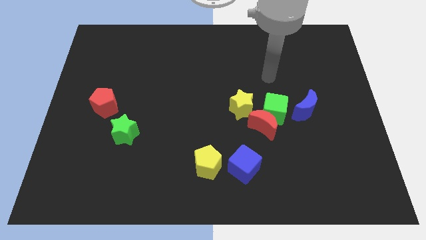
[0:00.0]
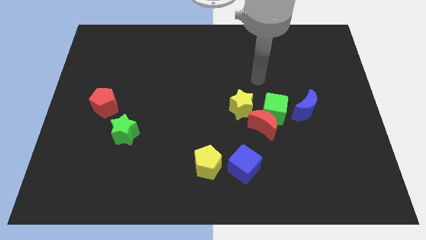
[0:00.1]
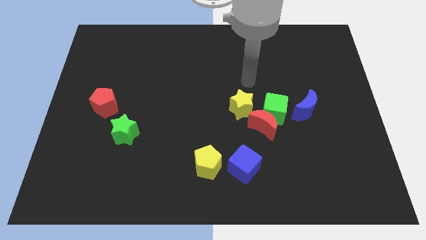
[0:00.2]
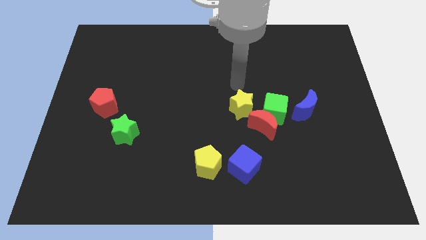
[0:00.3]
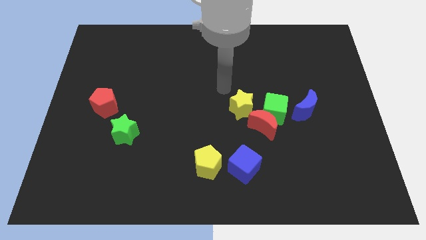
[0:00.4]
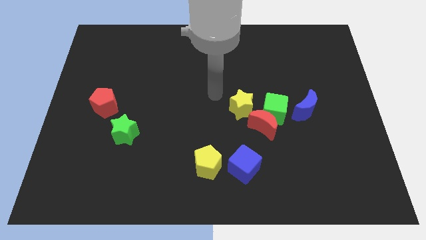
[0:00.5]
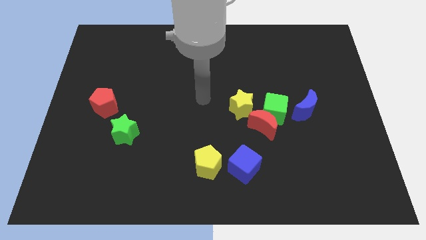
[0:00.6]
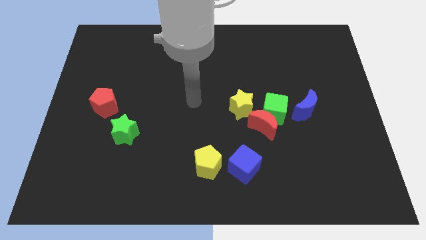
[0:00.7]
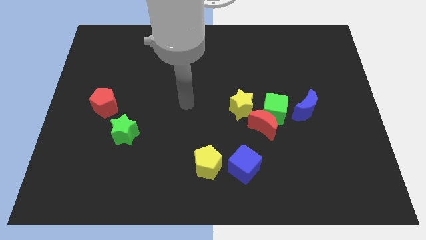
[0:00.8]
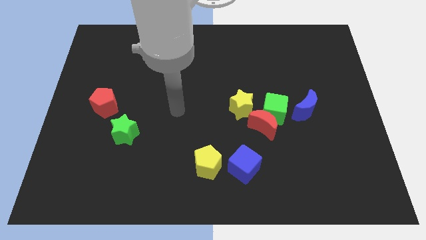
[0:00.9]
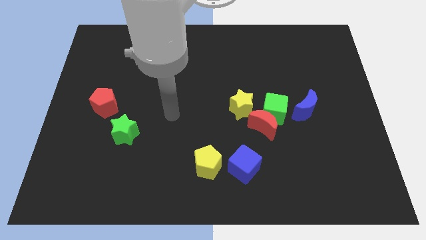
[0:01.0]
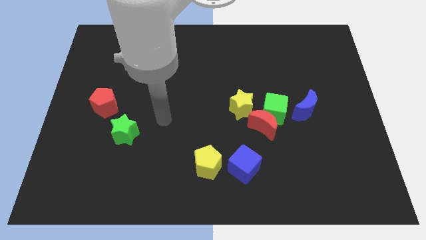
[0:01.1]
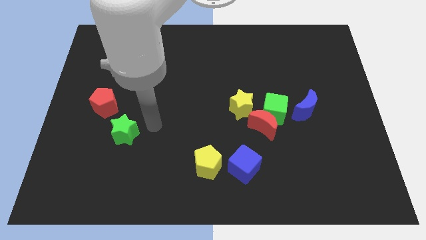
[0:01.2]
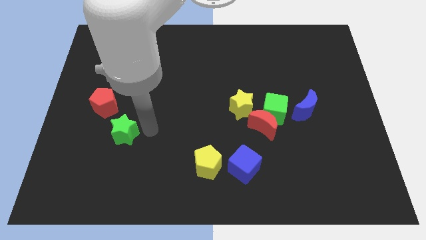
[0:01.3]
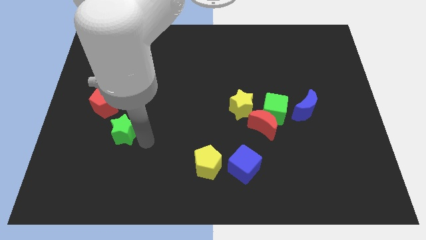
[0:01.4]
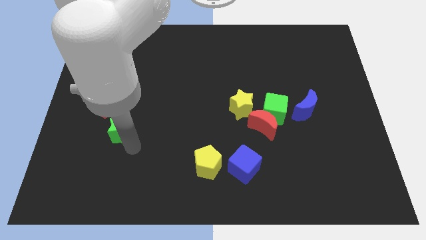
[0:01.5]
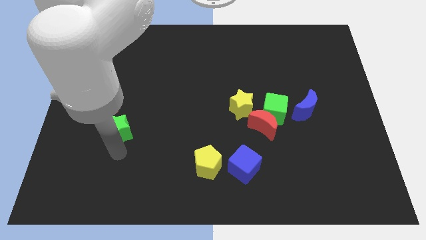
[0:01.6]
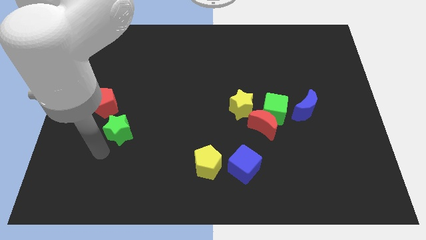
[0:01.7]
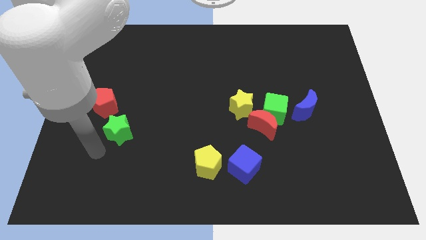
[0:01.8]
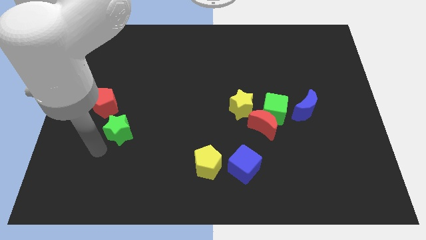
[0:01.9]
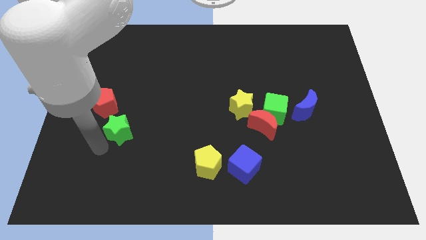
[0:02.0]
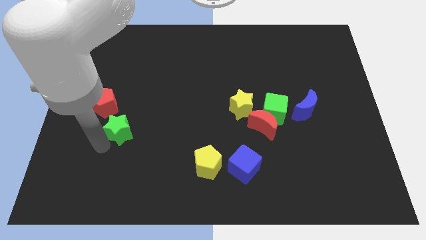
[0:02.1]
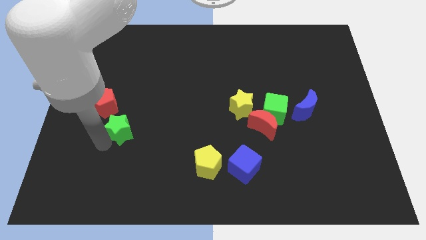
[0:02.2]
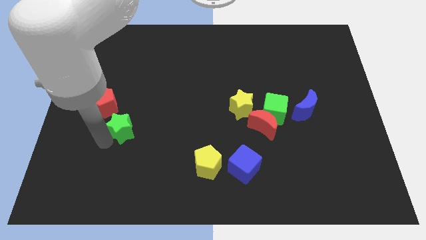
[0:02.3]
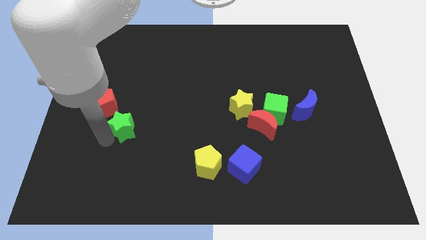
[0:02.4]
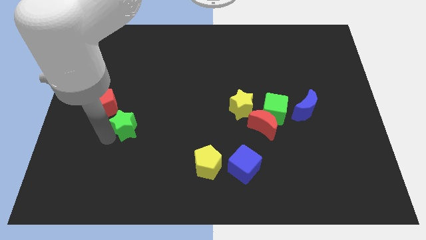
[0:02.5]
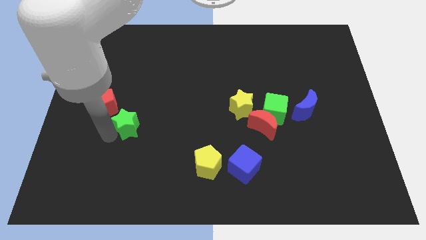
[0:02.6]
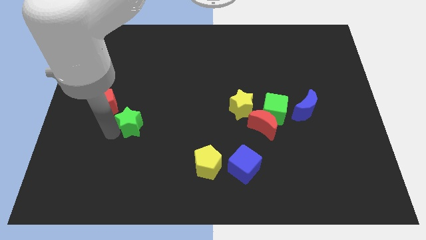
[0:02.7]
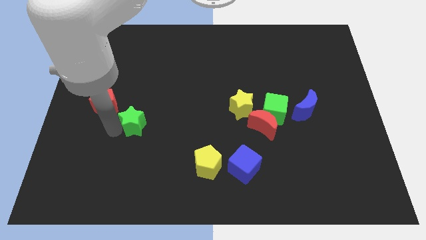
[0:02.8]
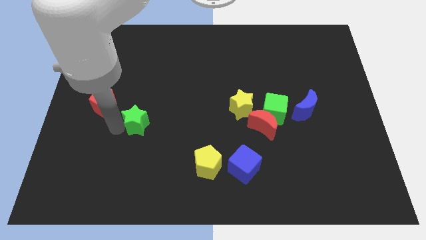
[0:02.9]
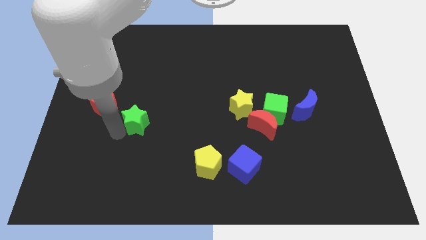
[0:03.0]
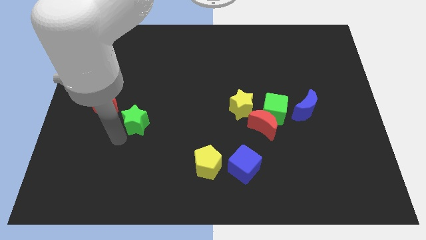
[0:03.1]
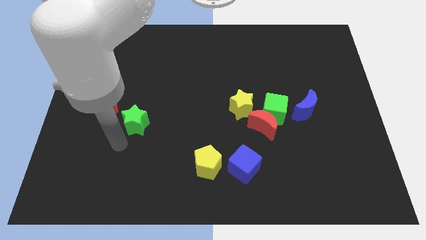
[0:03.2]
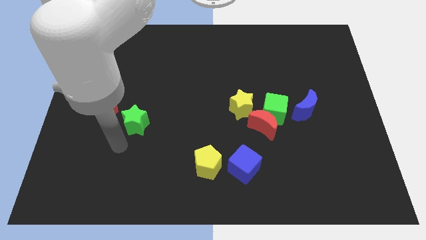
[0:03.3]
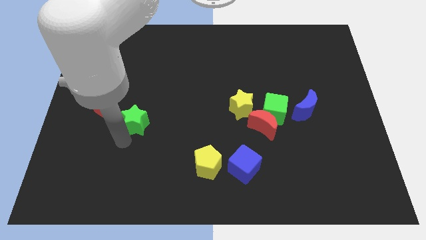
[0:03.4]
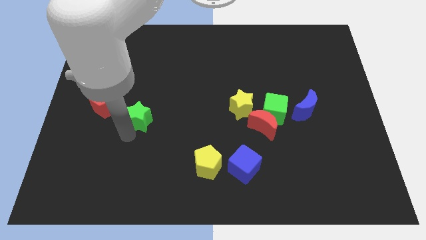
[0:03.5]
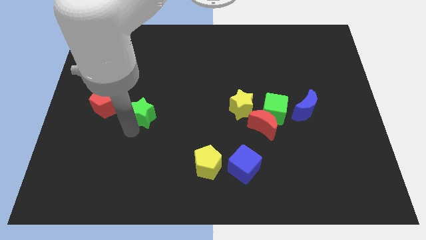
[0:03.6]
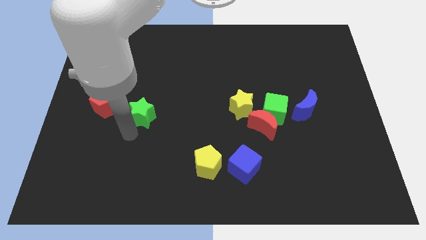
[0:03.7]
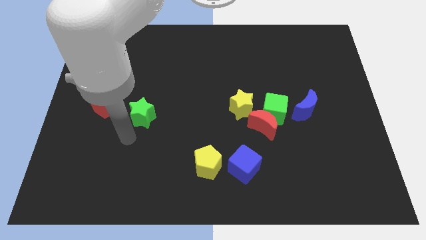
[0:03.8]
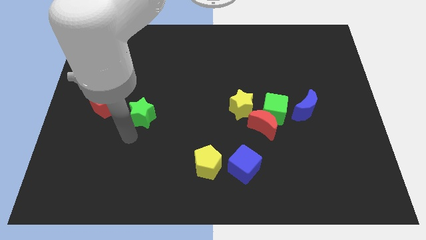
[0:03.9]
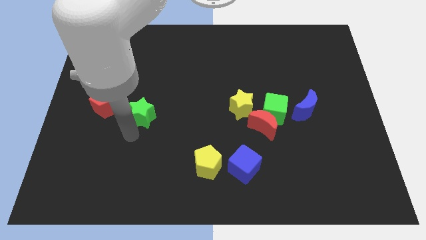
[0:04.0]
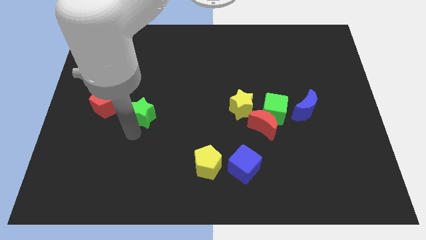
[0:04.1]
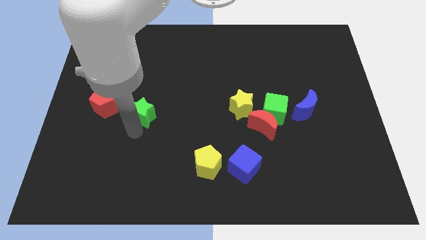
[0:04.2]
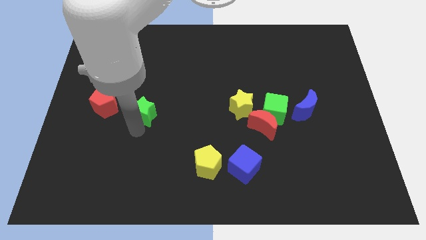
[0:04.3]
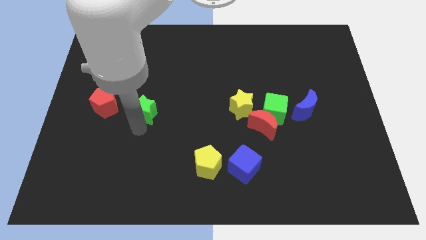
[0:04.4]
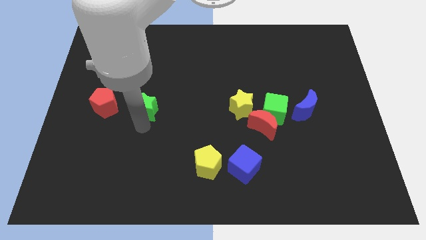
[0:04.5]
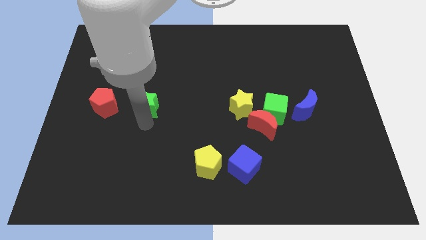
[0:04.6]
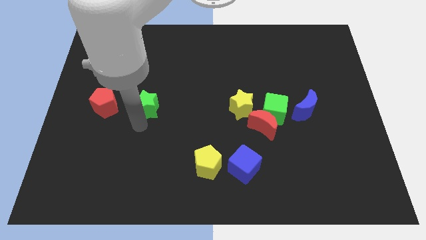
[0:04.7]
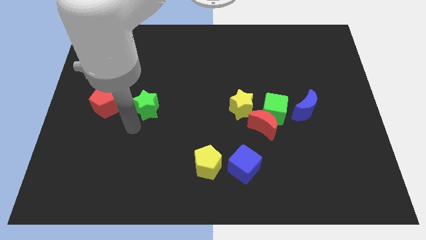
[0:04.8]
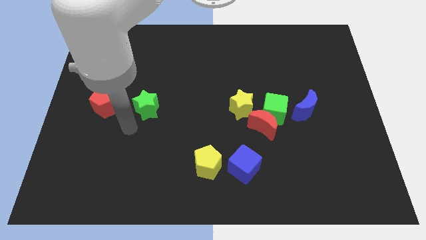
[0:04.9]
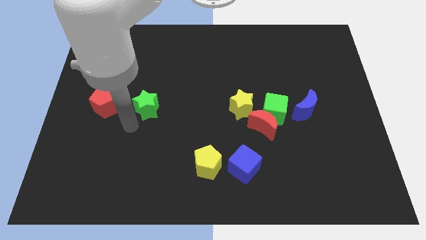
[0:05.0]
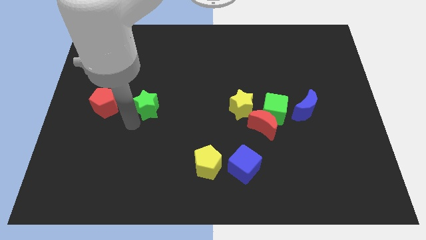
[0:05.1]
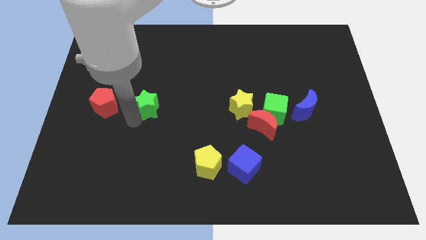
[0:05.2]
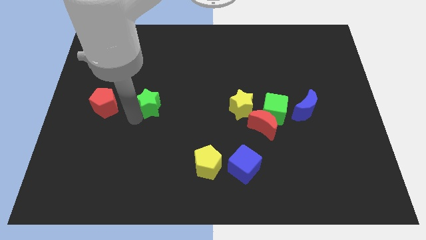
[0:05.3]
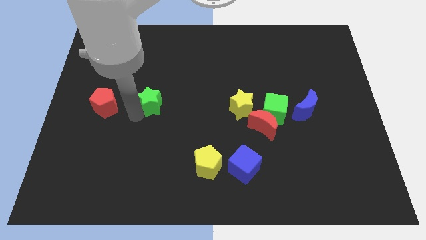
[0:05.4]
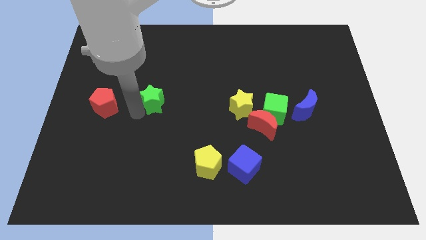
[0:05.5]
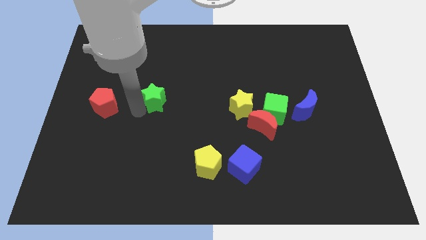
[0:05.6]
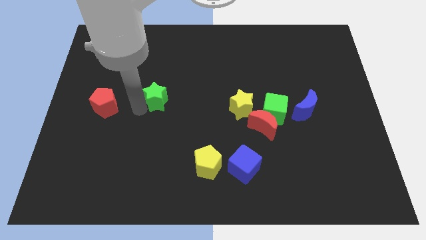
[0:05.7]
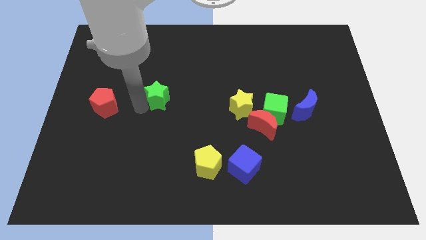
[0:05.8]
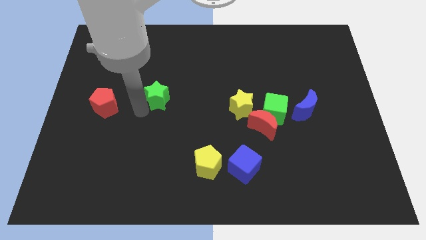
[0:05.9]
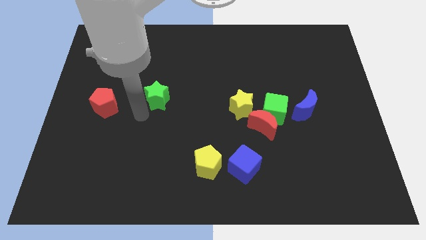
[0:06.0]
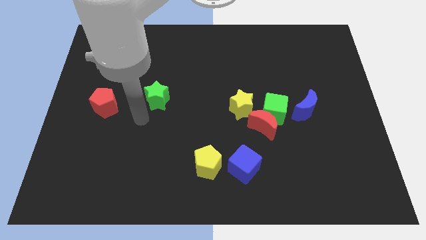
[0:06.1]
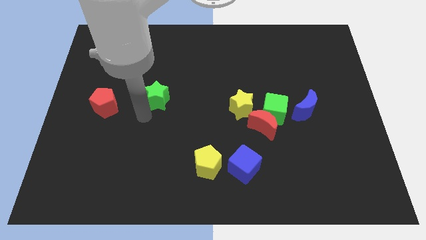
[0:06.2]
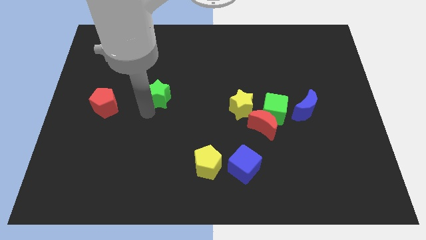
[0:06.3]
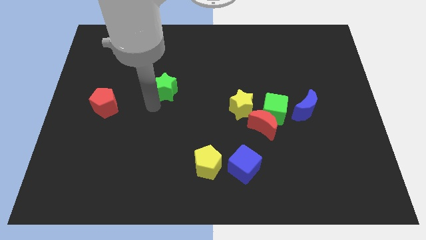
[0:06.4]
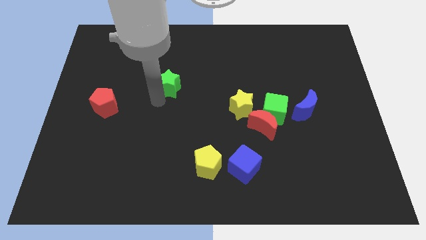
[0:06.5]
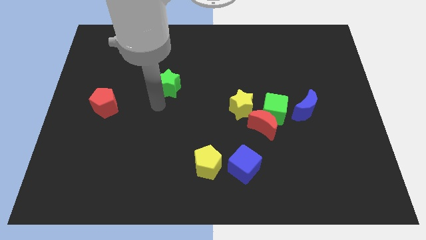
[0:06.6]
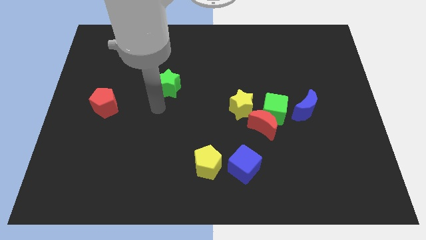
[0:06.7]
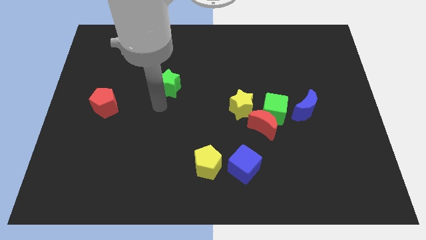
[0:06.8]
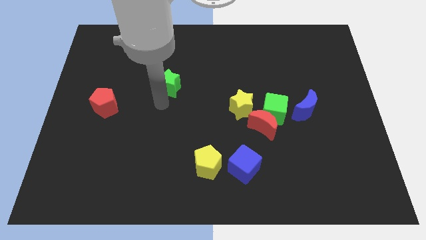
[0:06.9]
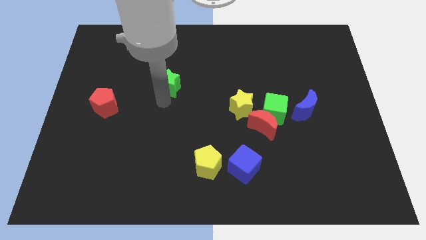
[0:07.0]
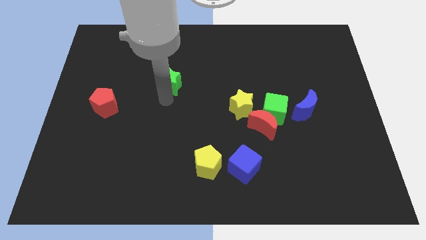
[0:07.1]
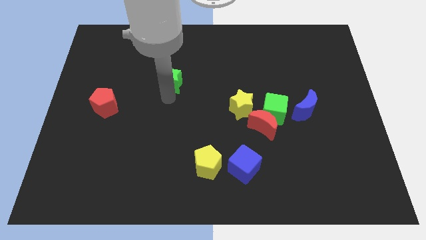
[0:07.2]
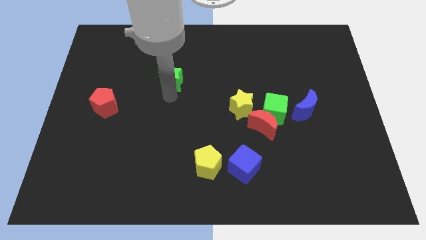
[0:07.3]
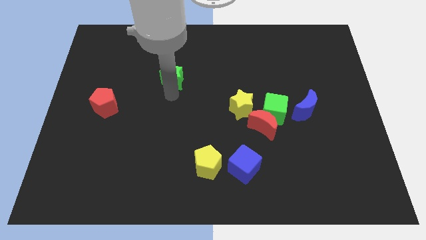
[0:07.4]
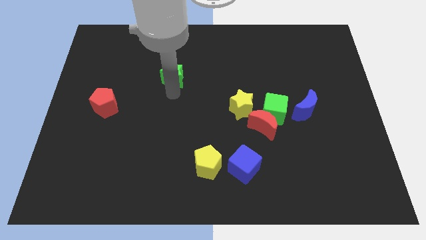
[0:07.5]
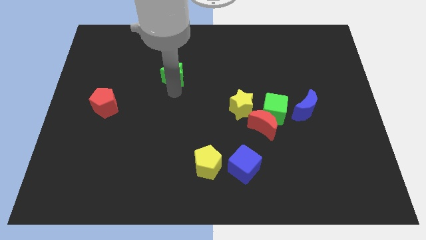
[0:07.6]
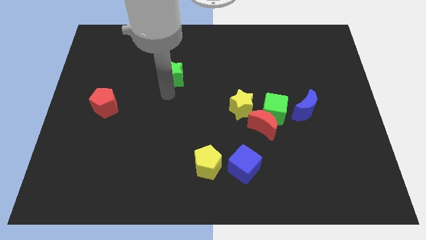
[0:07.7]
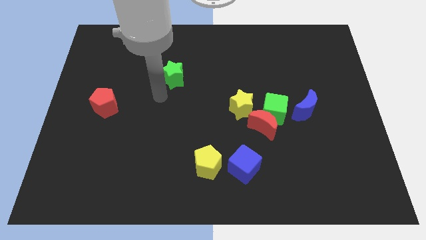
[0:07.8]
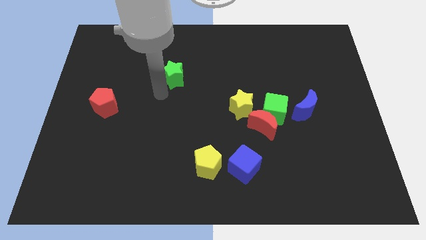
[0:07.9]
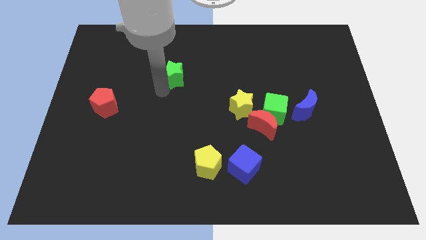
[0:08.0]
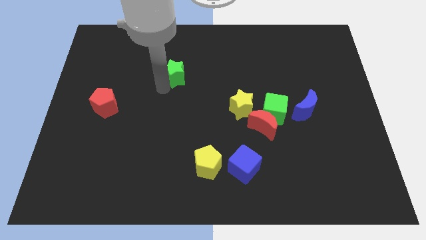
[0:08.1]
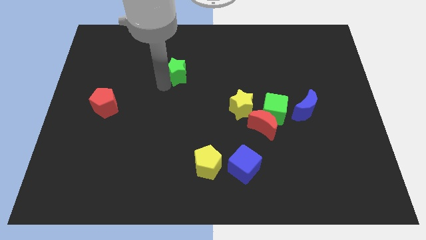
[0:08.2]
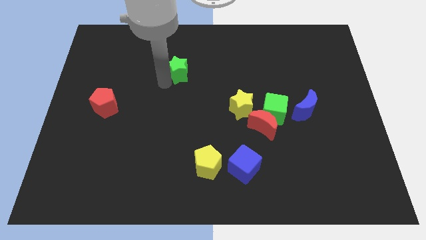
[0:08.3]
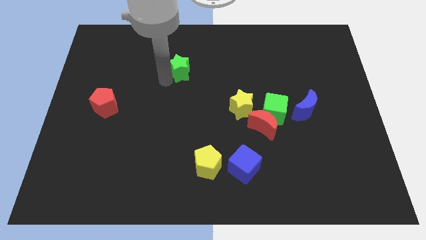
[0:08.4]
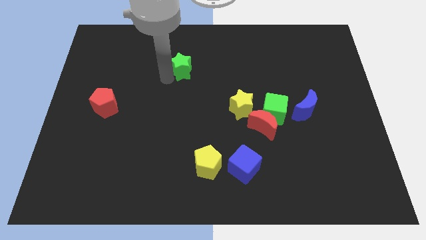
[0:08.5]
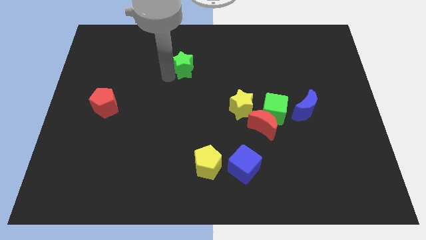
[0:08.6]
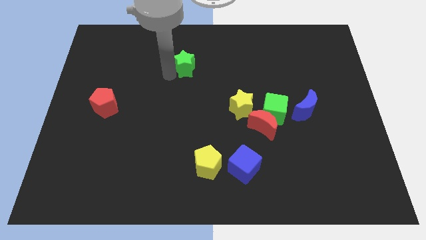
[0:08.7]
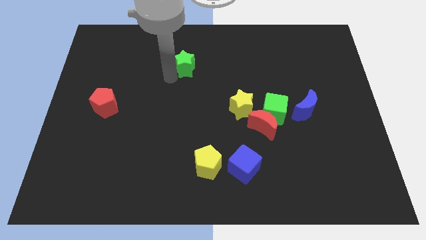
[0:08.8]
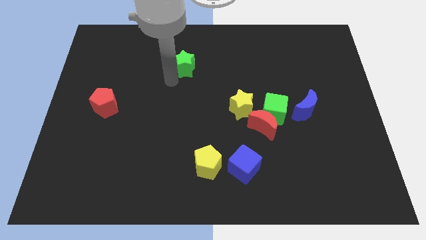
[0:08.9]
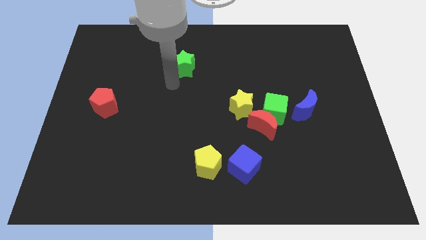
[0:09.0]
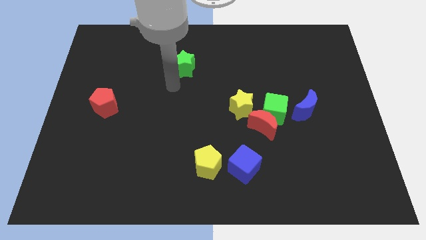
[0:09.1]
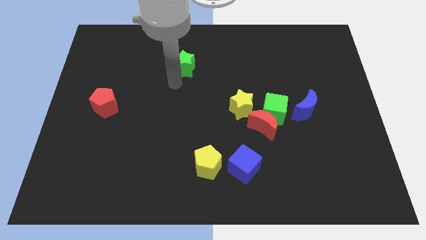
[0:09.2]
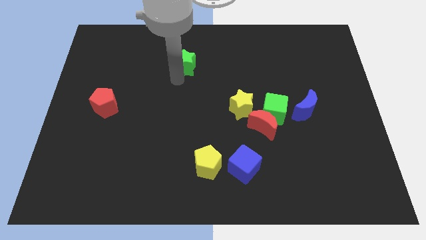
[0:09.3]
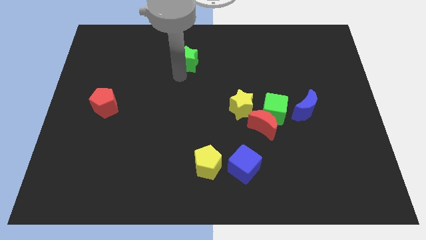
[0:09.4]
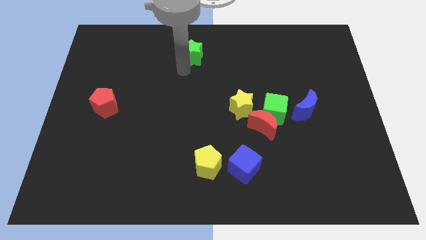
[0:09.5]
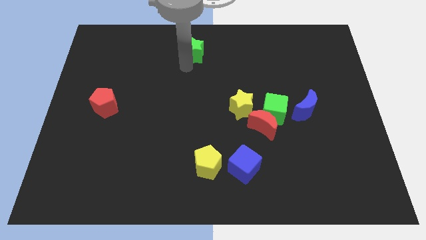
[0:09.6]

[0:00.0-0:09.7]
slide the green star to the top side
